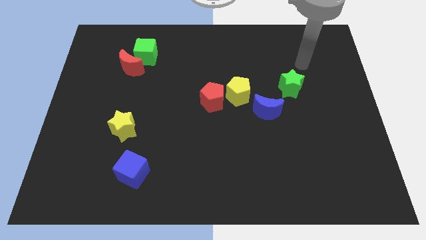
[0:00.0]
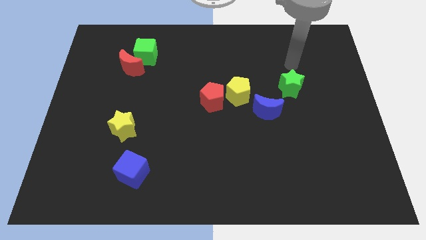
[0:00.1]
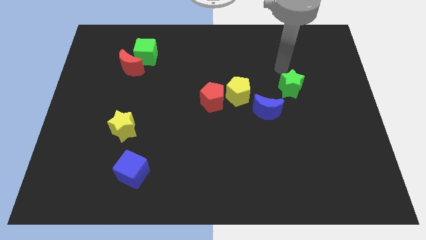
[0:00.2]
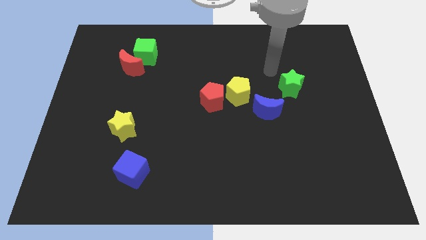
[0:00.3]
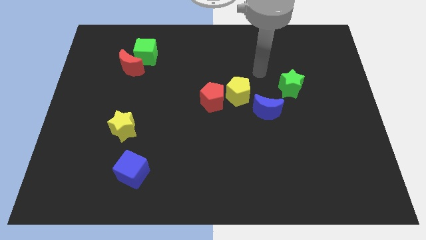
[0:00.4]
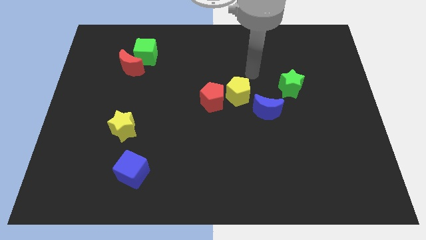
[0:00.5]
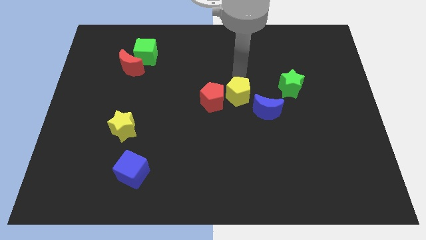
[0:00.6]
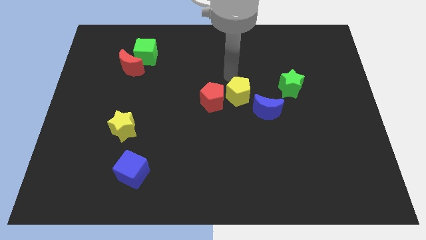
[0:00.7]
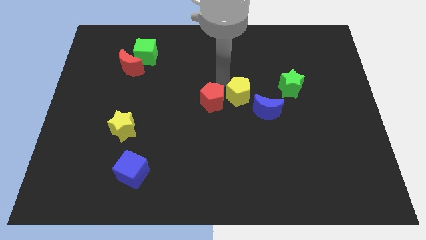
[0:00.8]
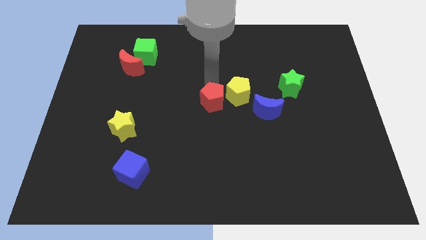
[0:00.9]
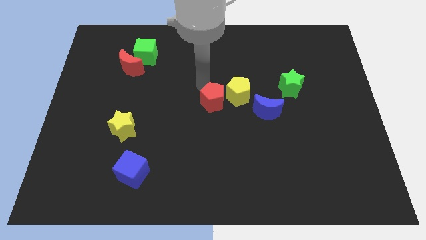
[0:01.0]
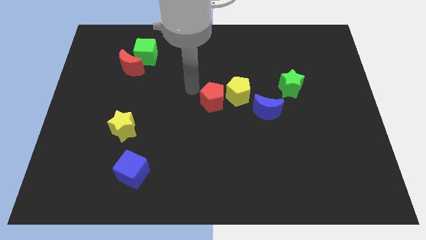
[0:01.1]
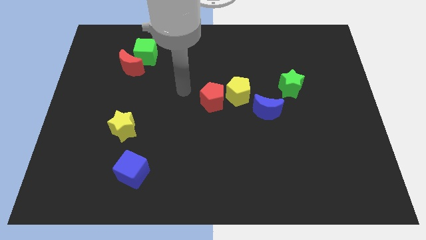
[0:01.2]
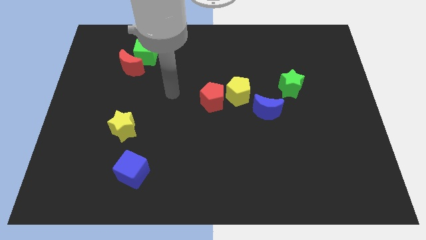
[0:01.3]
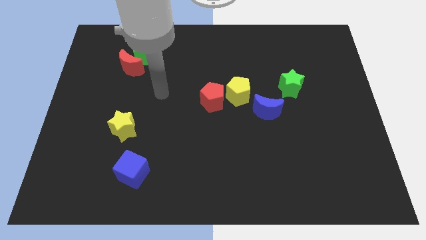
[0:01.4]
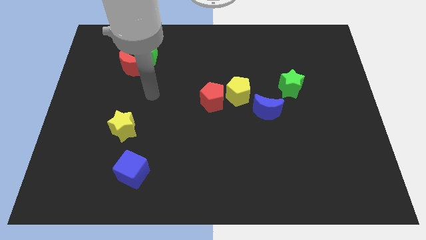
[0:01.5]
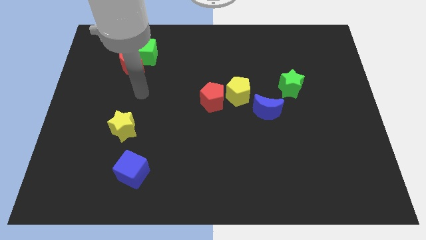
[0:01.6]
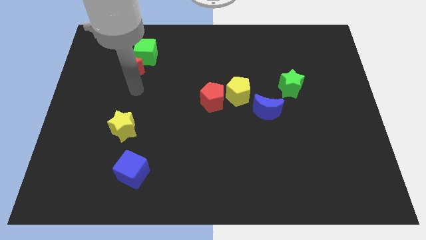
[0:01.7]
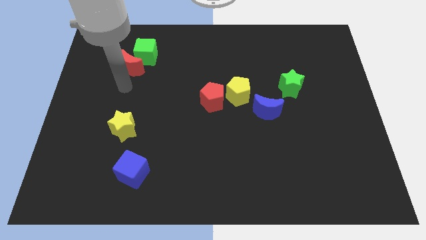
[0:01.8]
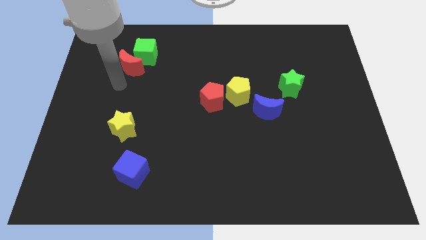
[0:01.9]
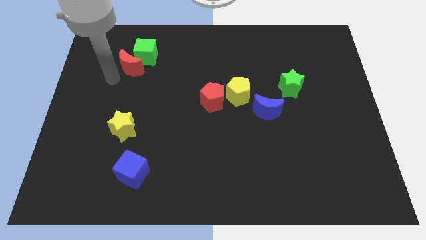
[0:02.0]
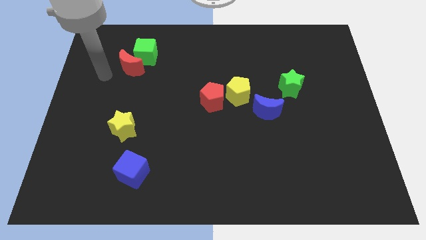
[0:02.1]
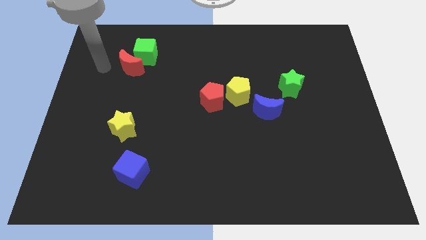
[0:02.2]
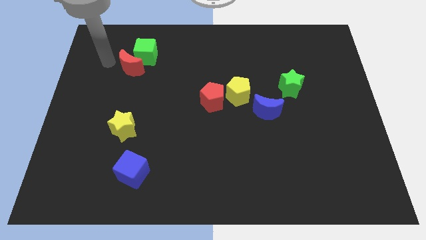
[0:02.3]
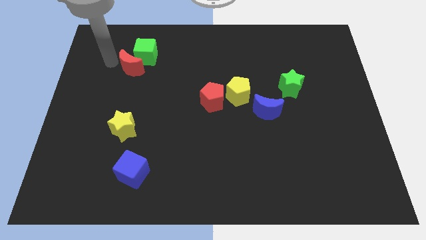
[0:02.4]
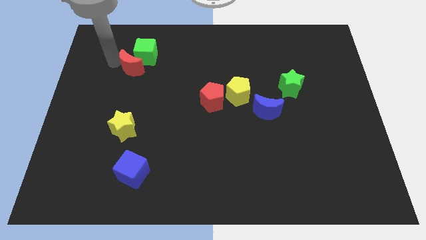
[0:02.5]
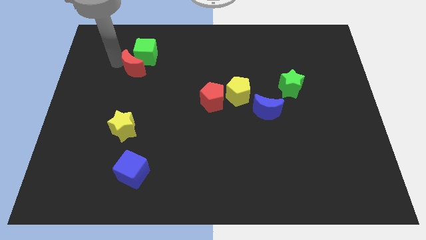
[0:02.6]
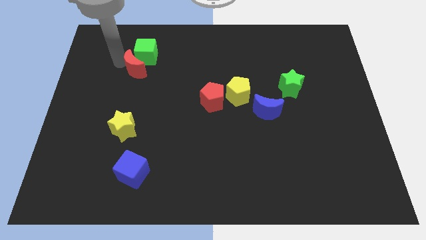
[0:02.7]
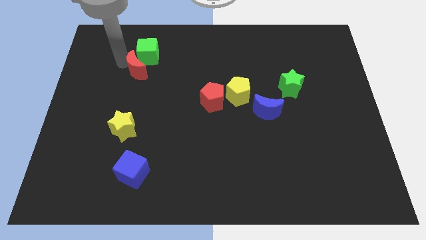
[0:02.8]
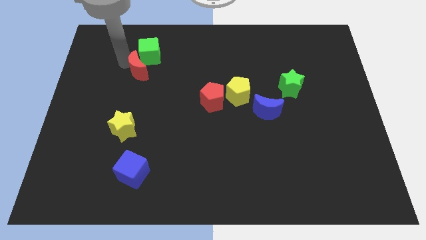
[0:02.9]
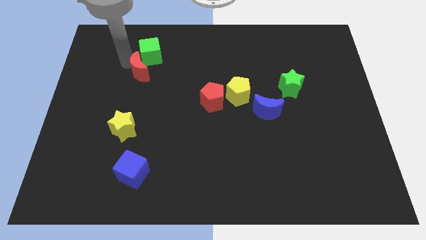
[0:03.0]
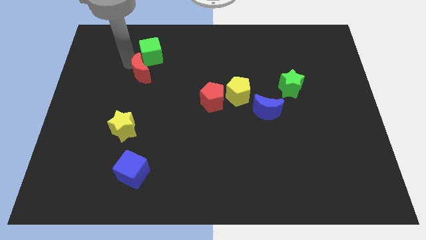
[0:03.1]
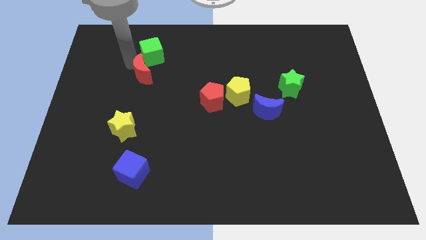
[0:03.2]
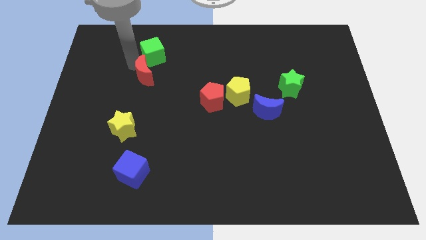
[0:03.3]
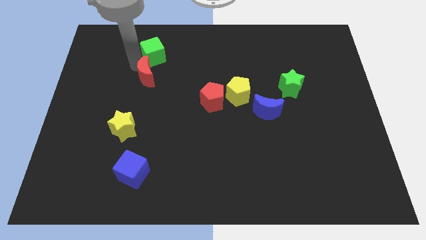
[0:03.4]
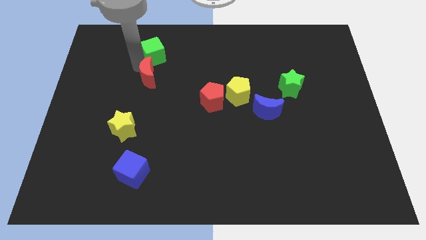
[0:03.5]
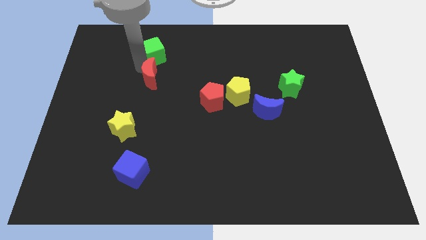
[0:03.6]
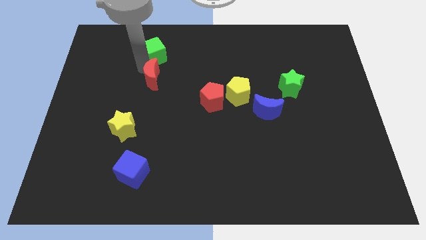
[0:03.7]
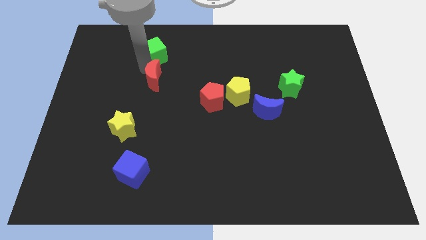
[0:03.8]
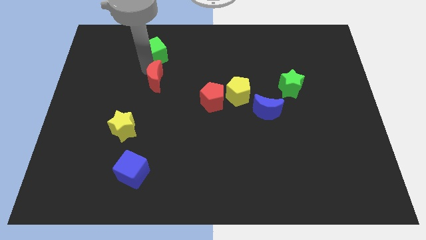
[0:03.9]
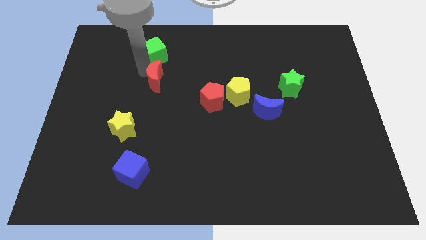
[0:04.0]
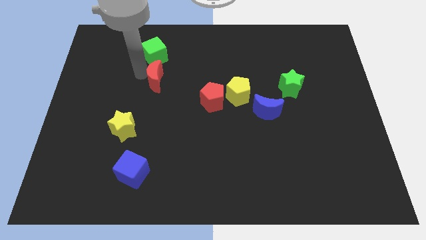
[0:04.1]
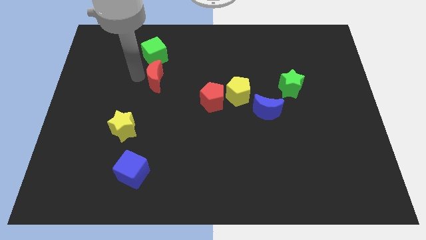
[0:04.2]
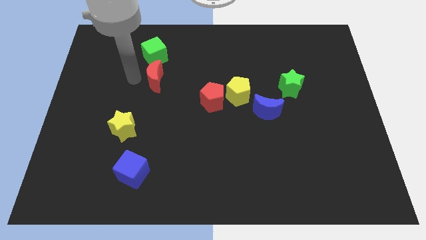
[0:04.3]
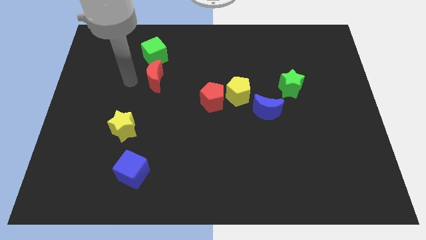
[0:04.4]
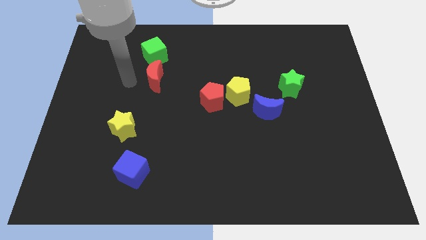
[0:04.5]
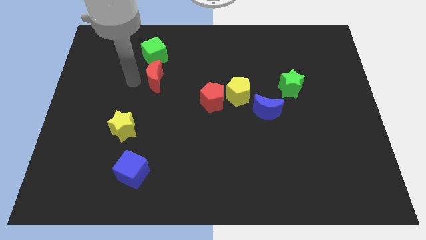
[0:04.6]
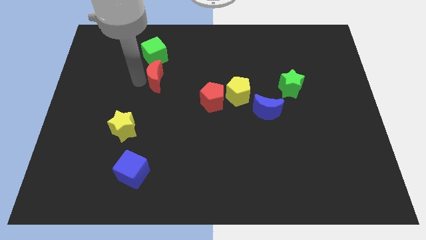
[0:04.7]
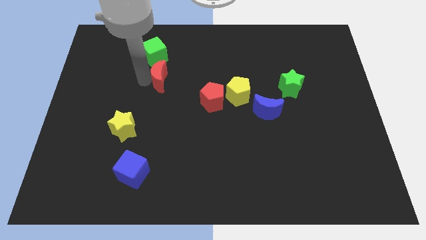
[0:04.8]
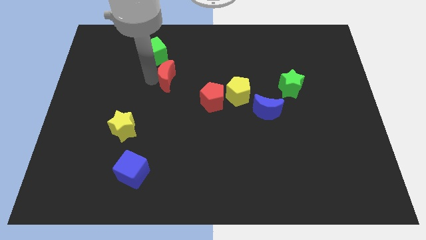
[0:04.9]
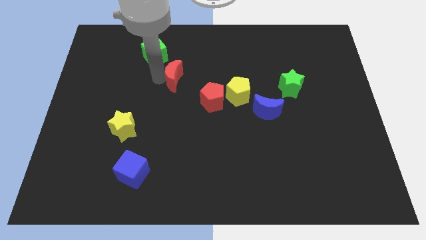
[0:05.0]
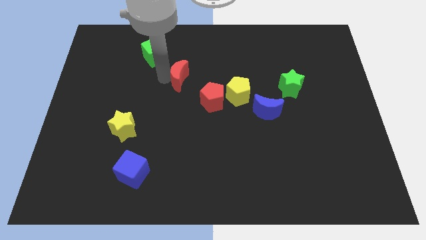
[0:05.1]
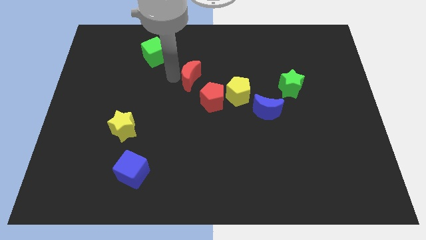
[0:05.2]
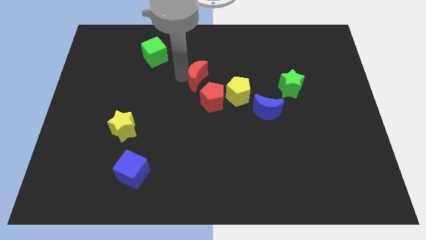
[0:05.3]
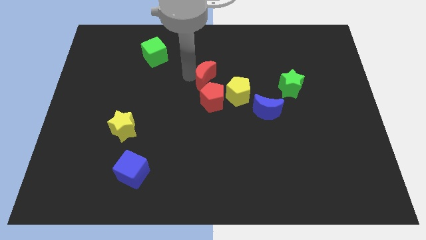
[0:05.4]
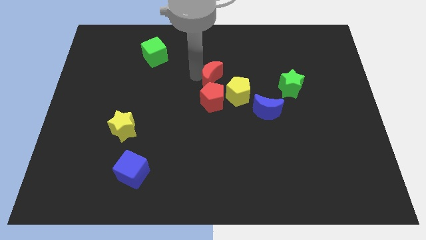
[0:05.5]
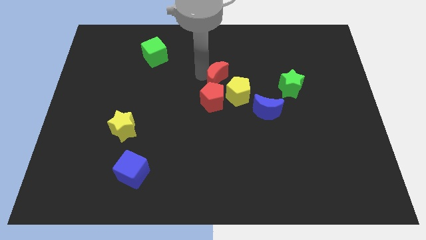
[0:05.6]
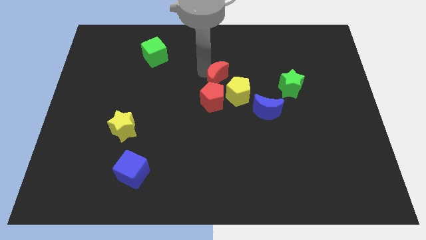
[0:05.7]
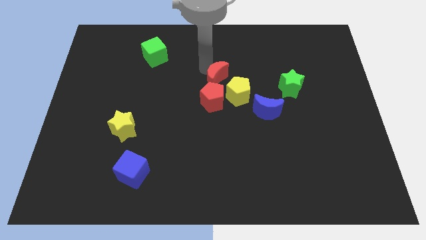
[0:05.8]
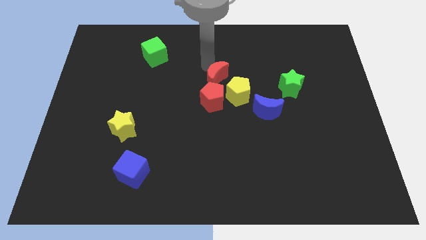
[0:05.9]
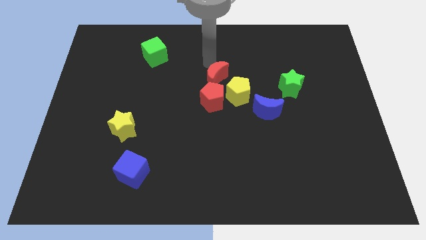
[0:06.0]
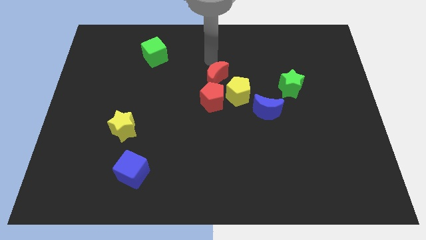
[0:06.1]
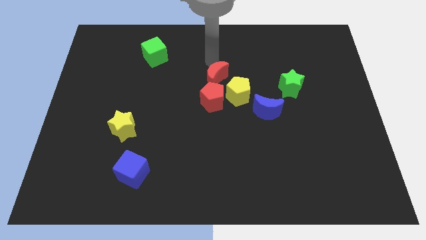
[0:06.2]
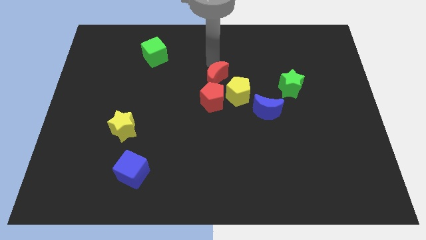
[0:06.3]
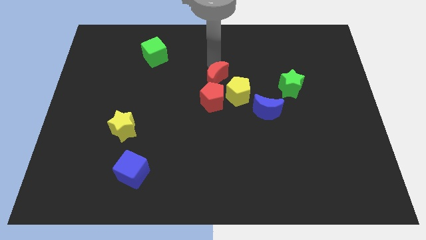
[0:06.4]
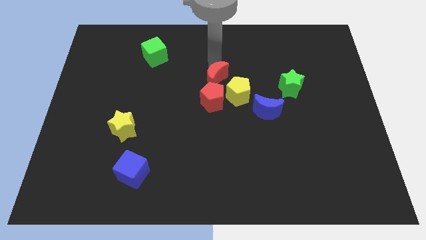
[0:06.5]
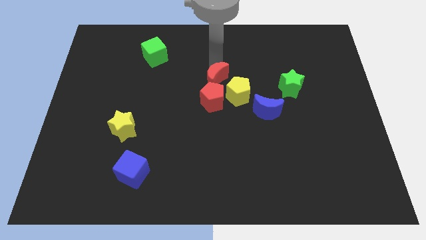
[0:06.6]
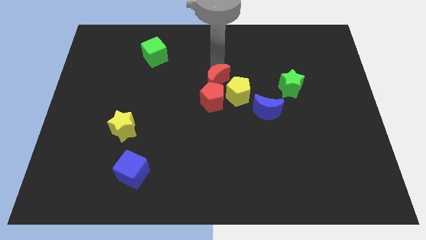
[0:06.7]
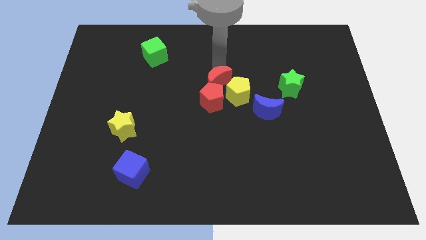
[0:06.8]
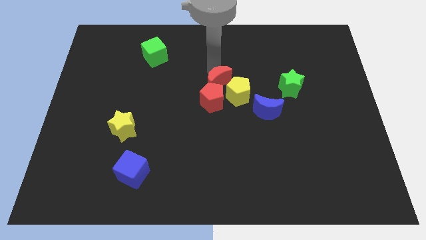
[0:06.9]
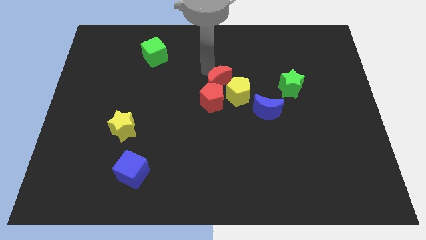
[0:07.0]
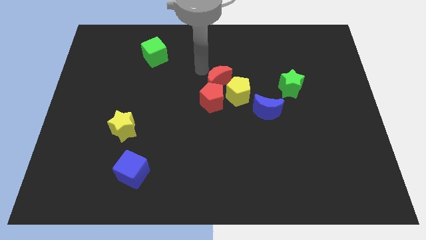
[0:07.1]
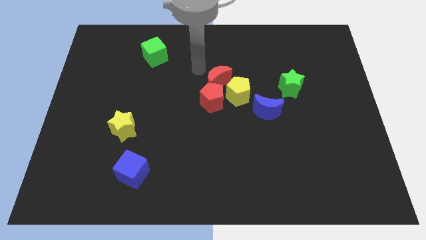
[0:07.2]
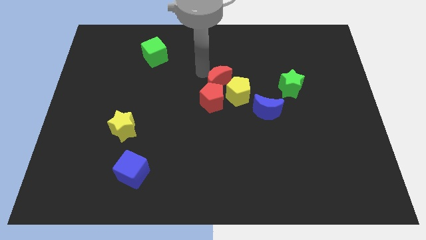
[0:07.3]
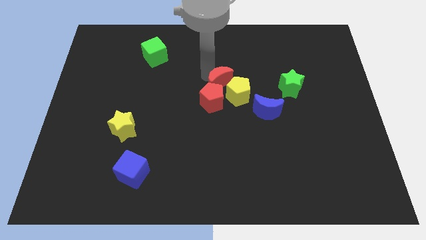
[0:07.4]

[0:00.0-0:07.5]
put the red moon next to the yellow pentagon
